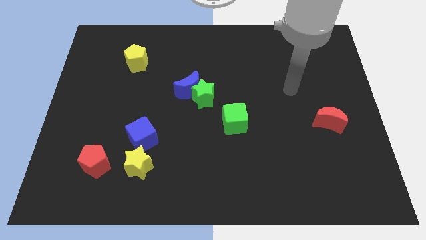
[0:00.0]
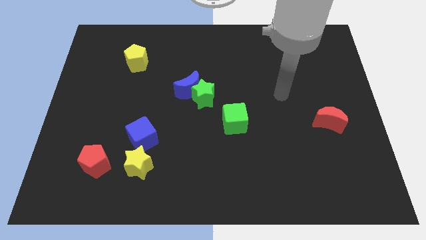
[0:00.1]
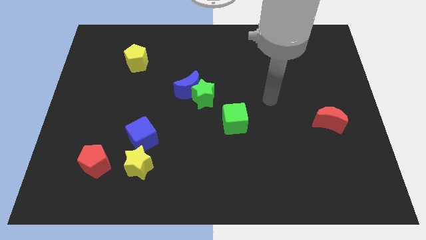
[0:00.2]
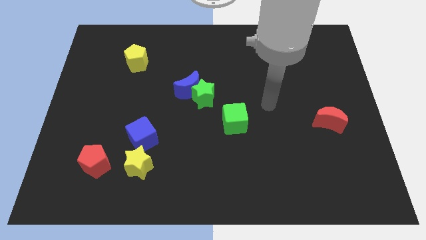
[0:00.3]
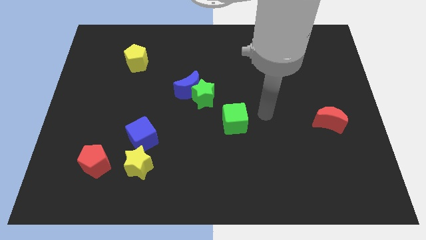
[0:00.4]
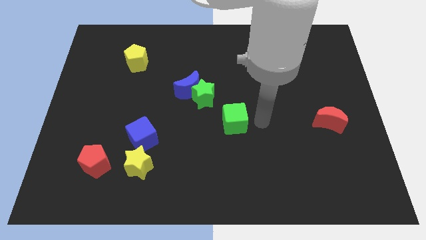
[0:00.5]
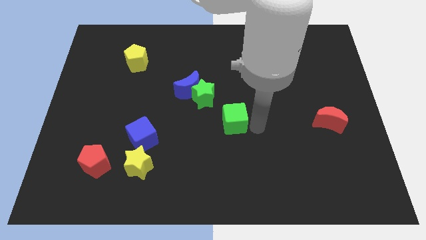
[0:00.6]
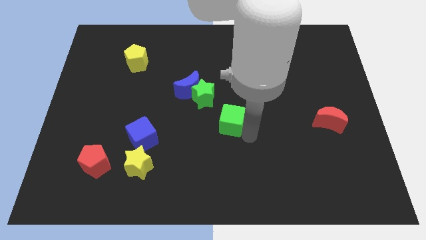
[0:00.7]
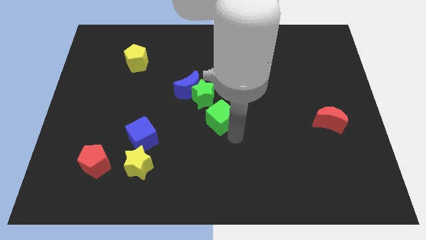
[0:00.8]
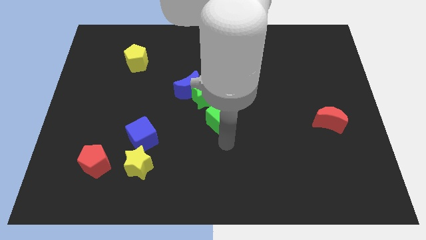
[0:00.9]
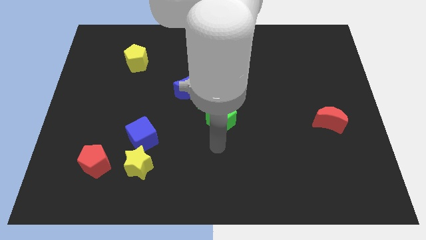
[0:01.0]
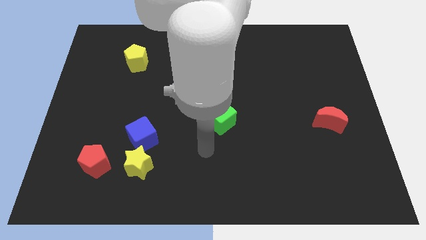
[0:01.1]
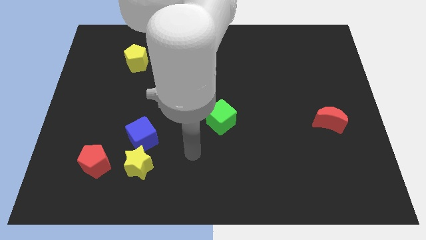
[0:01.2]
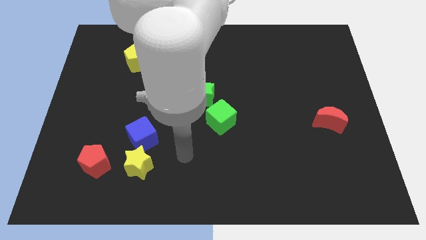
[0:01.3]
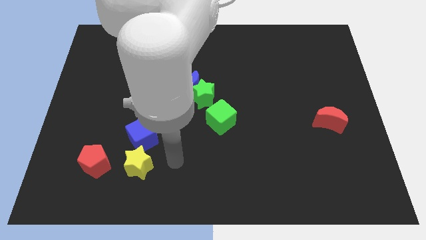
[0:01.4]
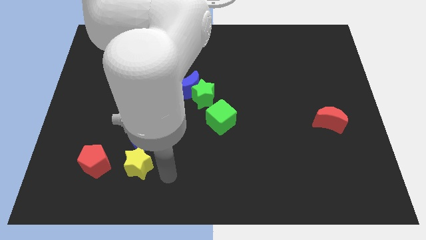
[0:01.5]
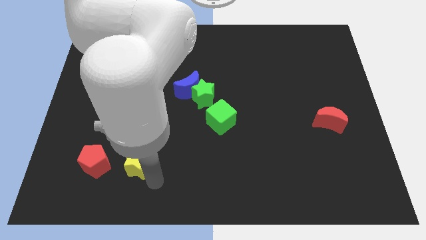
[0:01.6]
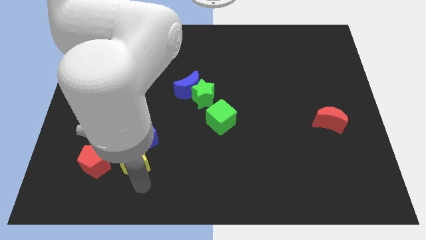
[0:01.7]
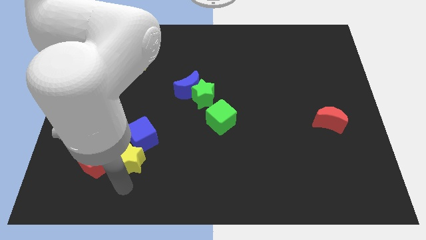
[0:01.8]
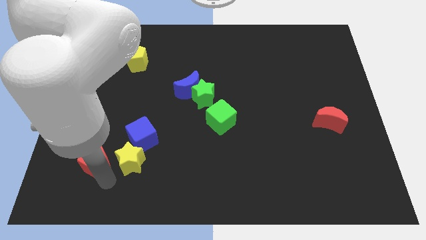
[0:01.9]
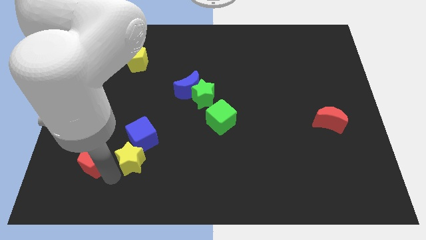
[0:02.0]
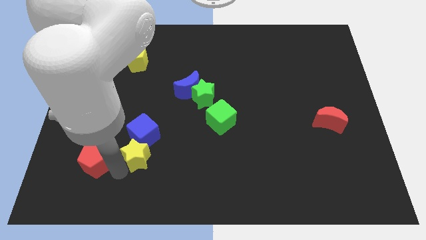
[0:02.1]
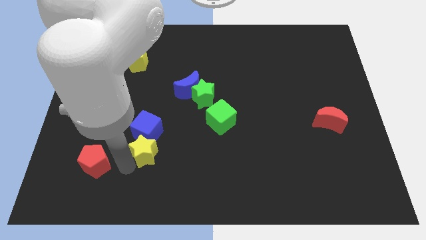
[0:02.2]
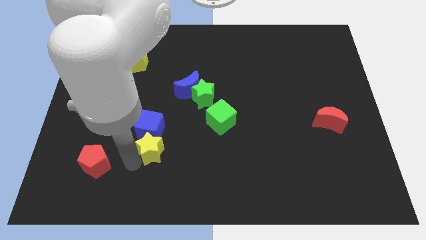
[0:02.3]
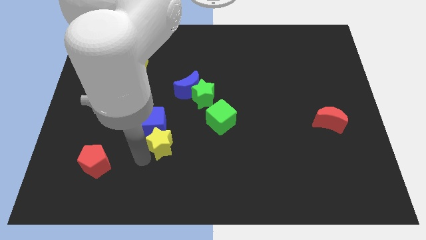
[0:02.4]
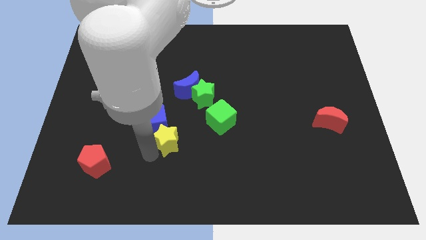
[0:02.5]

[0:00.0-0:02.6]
slide the yellow star somewhat diagonally upwards and right

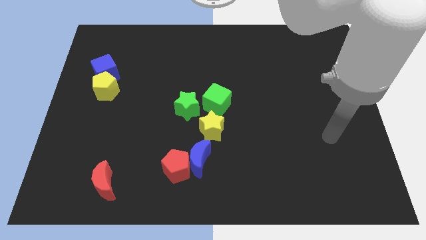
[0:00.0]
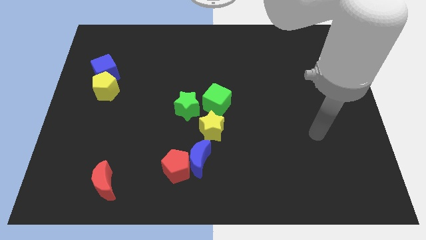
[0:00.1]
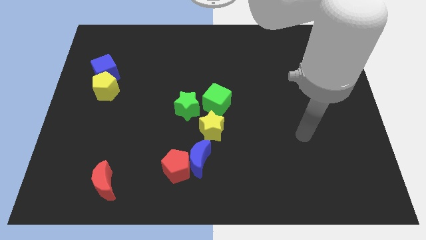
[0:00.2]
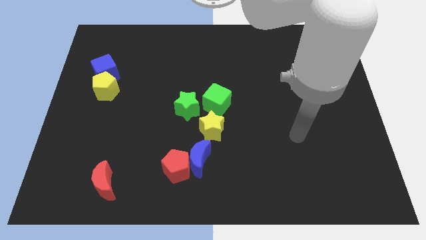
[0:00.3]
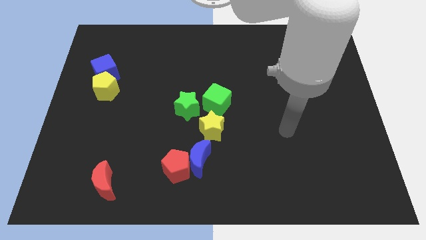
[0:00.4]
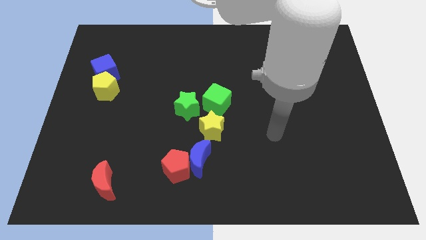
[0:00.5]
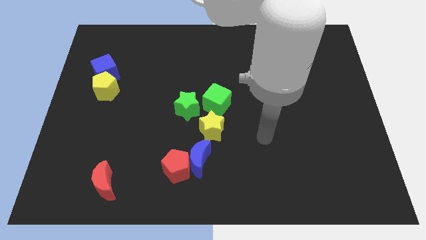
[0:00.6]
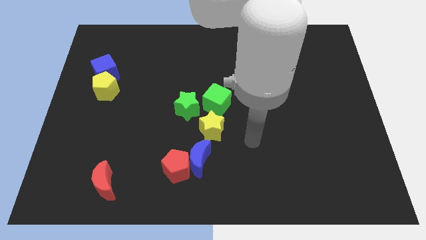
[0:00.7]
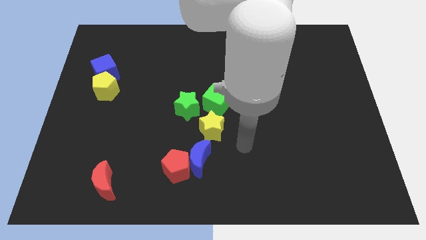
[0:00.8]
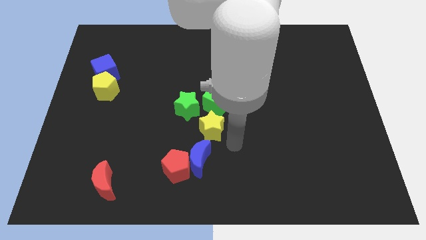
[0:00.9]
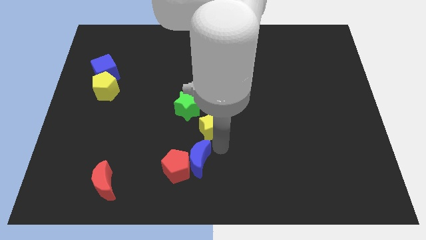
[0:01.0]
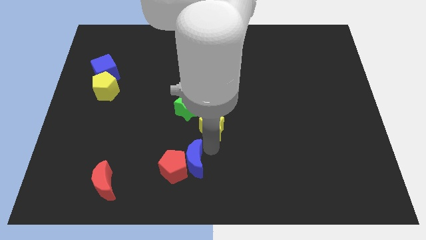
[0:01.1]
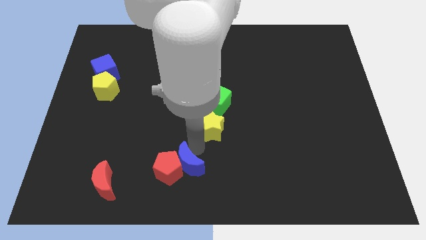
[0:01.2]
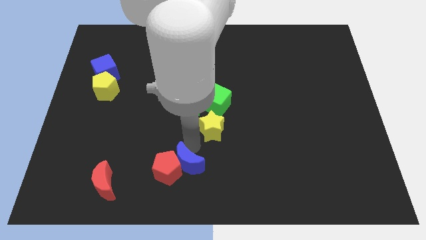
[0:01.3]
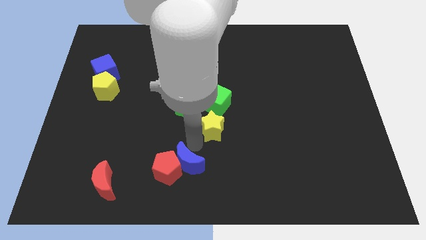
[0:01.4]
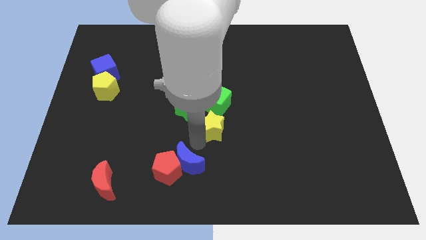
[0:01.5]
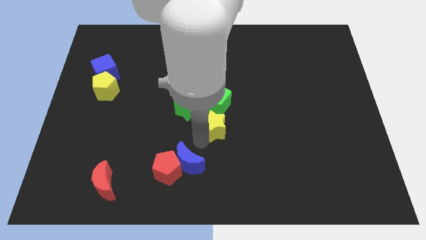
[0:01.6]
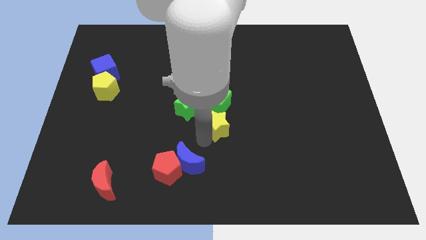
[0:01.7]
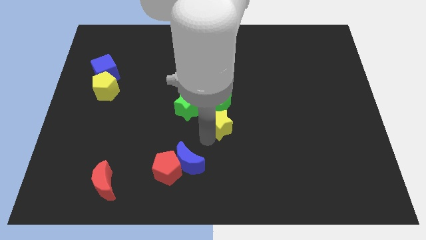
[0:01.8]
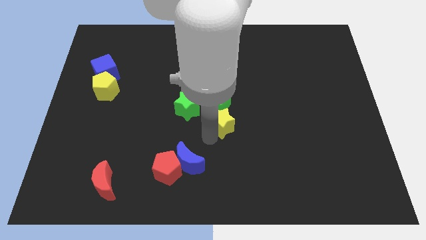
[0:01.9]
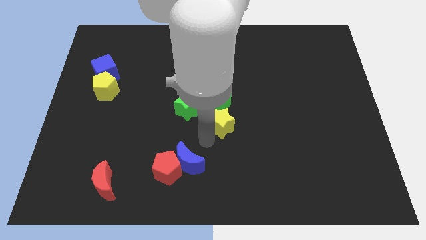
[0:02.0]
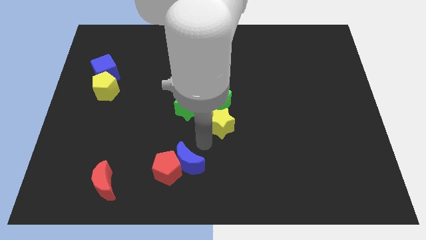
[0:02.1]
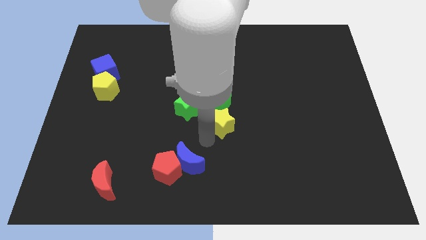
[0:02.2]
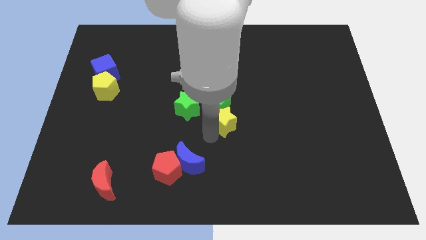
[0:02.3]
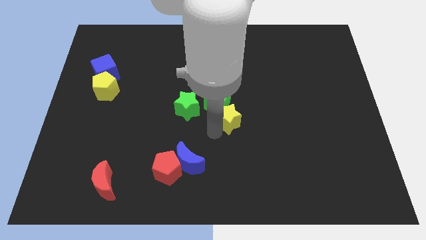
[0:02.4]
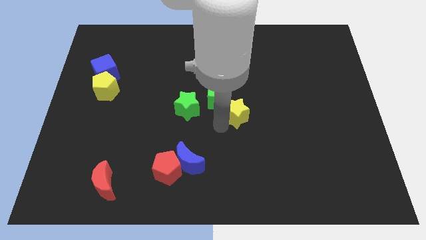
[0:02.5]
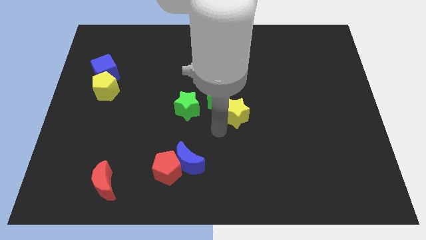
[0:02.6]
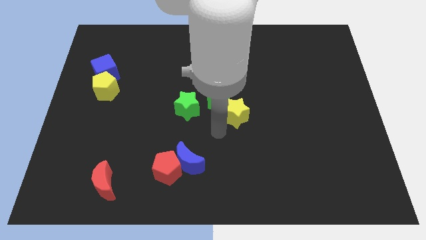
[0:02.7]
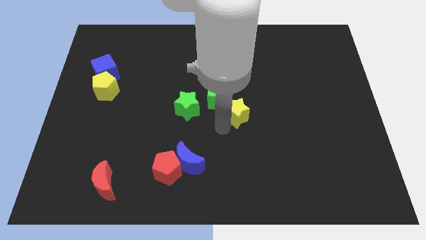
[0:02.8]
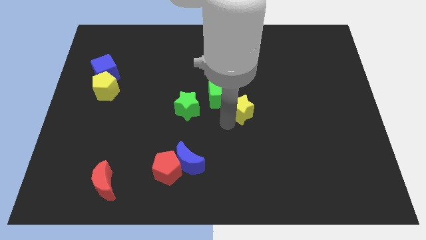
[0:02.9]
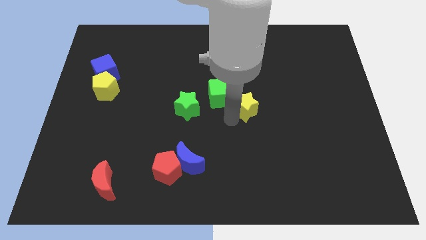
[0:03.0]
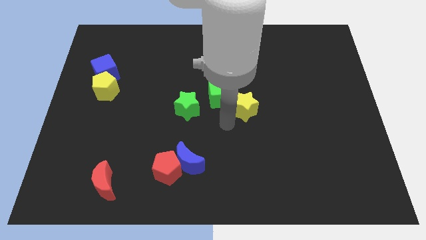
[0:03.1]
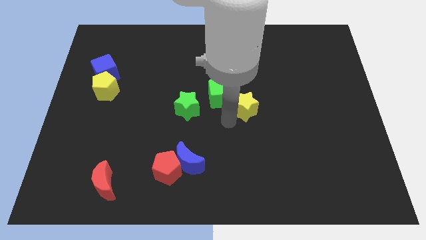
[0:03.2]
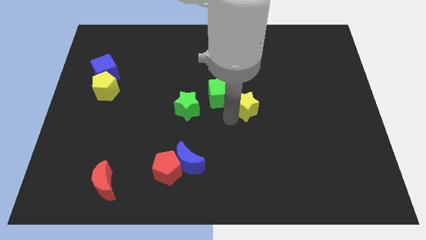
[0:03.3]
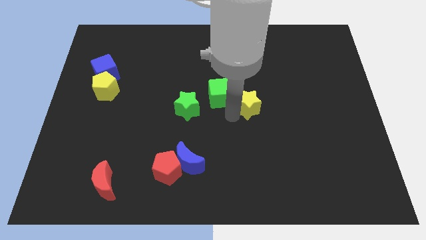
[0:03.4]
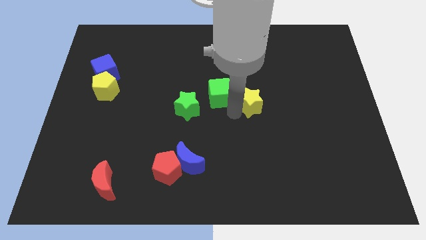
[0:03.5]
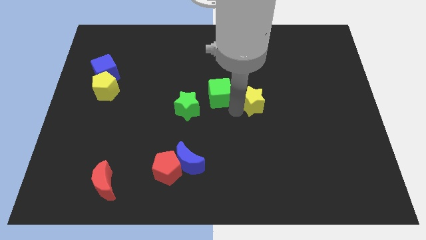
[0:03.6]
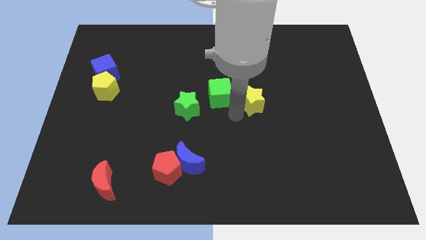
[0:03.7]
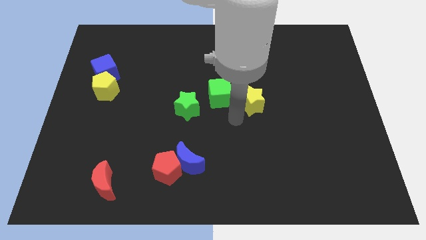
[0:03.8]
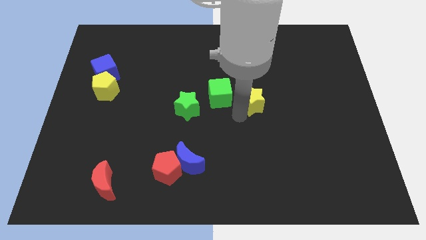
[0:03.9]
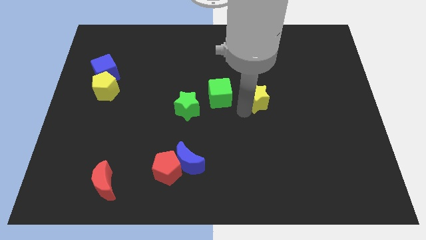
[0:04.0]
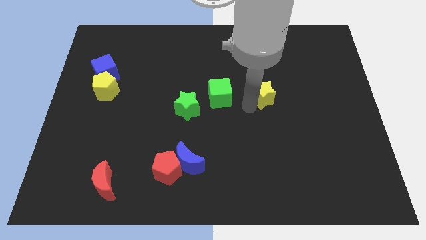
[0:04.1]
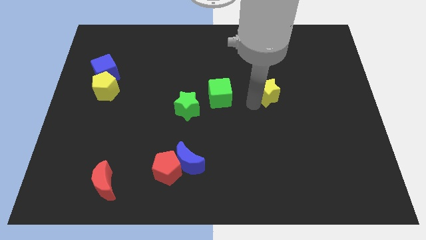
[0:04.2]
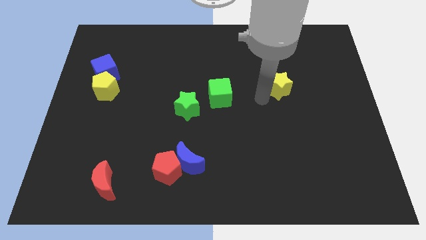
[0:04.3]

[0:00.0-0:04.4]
slide the yellow star upwards and right

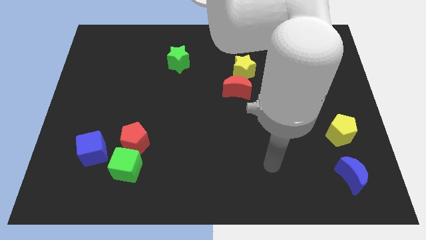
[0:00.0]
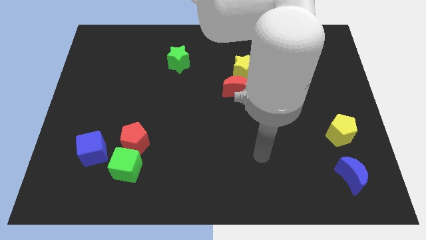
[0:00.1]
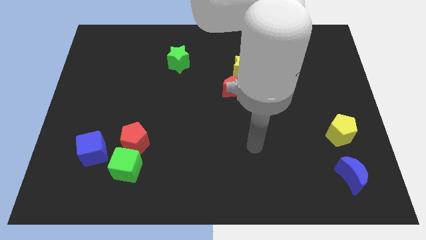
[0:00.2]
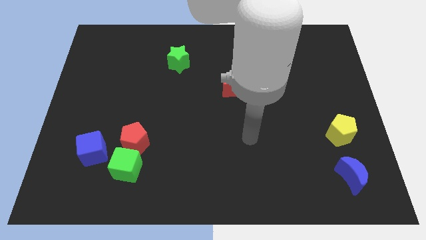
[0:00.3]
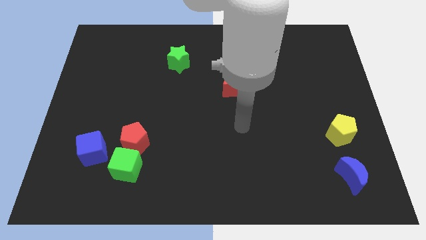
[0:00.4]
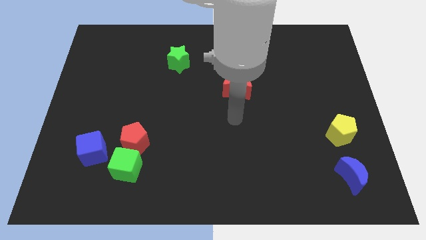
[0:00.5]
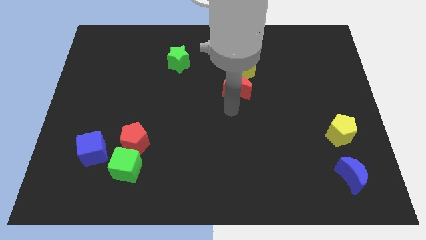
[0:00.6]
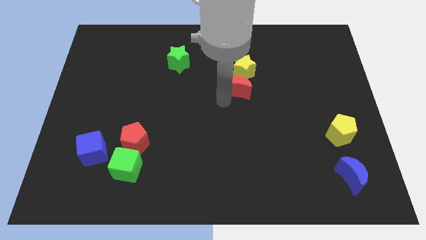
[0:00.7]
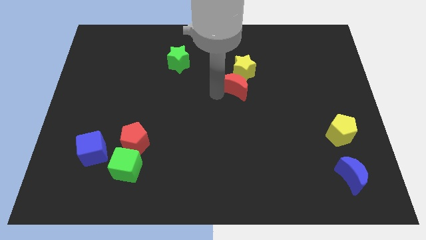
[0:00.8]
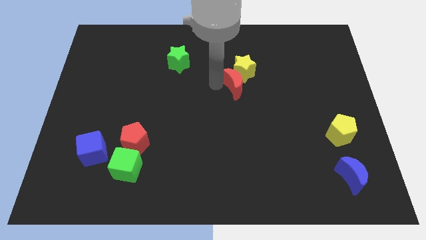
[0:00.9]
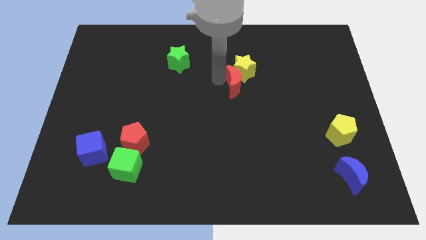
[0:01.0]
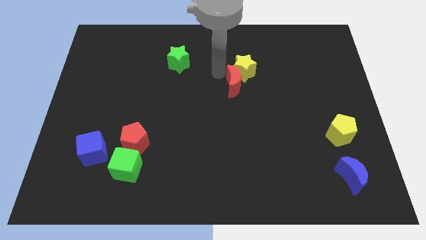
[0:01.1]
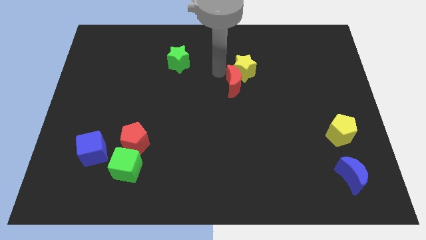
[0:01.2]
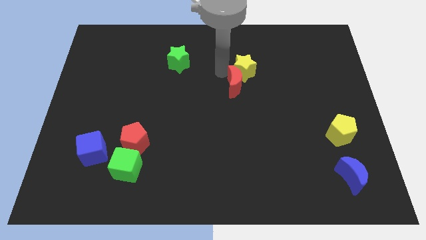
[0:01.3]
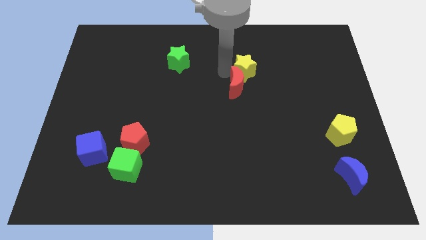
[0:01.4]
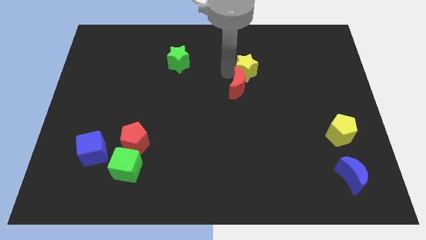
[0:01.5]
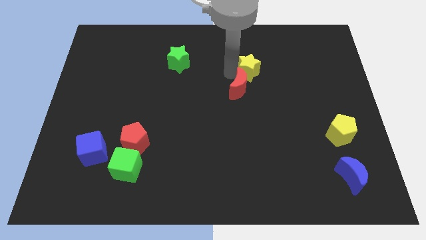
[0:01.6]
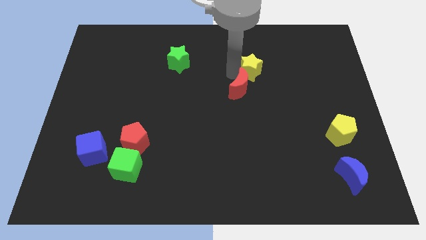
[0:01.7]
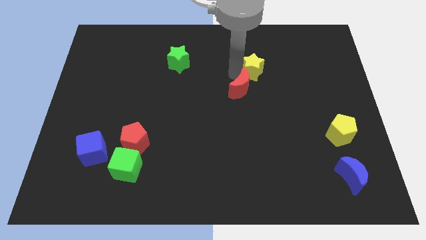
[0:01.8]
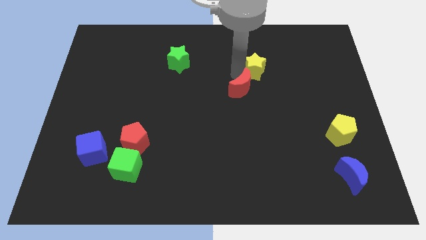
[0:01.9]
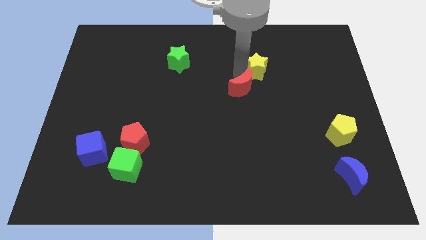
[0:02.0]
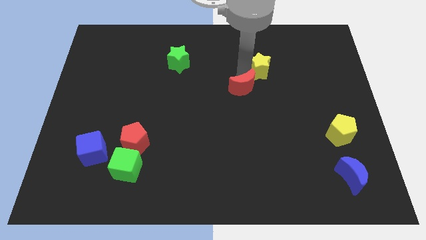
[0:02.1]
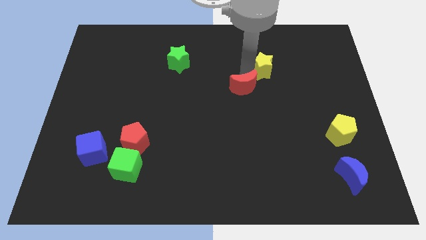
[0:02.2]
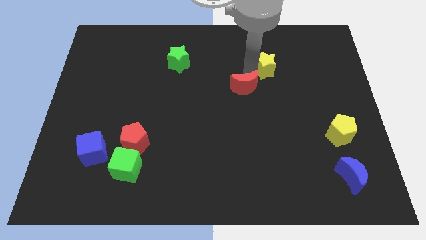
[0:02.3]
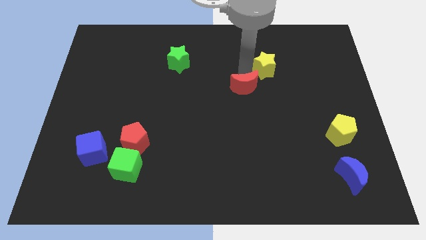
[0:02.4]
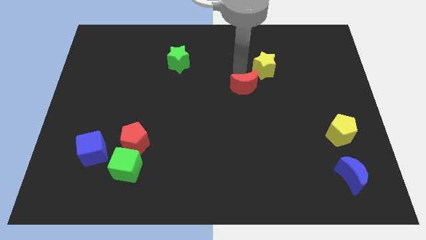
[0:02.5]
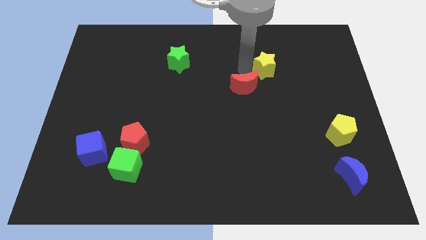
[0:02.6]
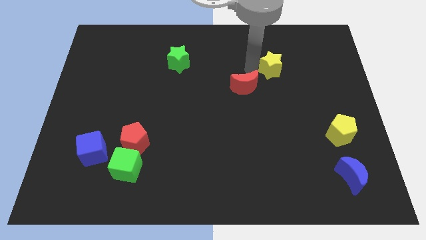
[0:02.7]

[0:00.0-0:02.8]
slightly push the yellow star to the right
